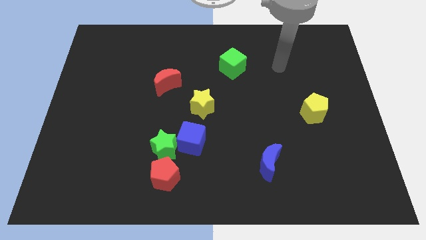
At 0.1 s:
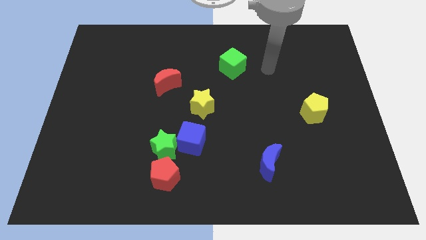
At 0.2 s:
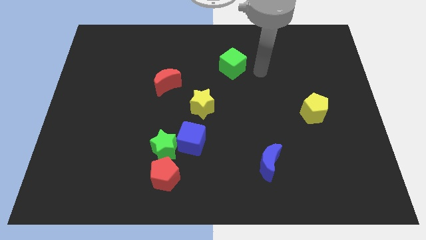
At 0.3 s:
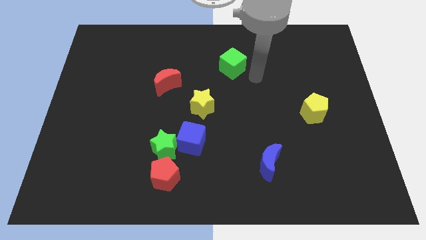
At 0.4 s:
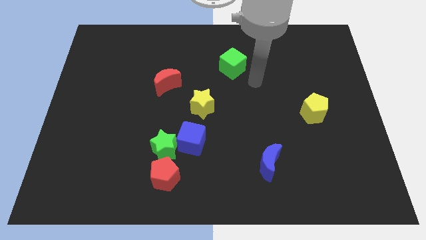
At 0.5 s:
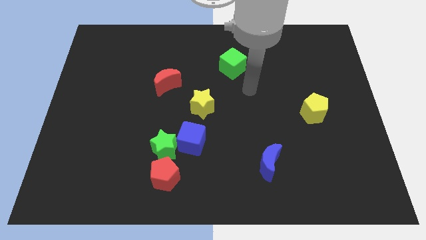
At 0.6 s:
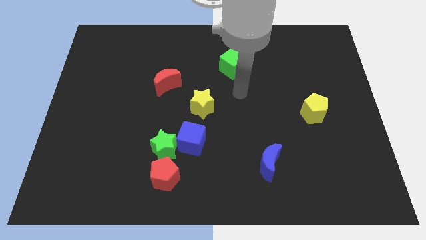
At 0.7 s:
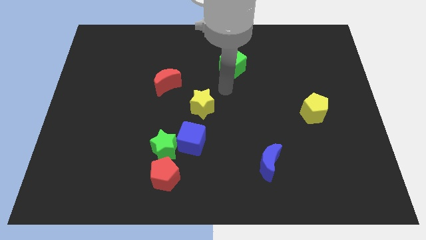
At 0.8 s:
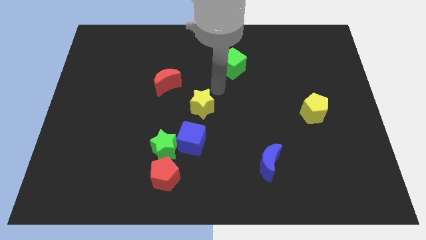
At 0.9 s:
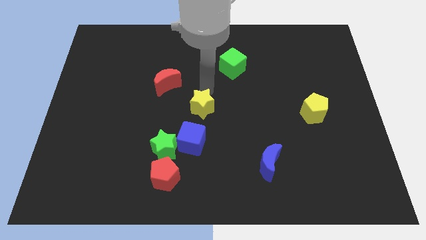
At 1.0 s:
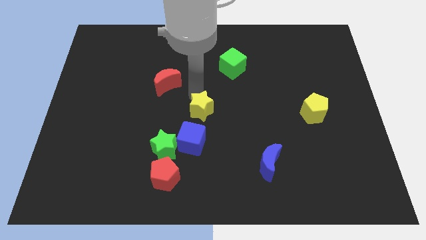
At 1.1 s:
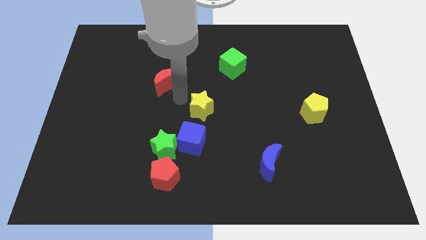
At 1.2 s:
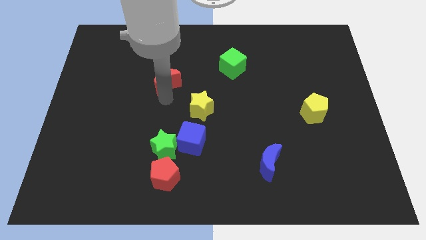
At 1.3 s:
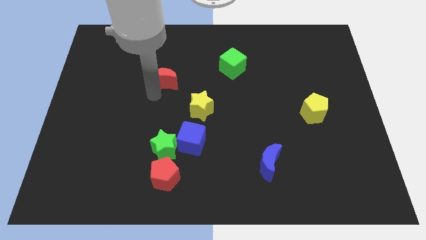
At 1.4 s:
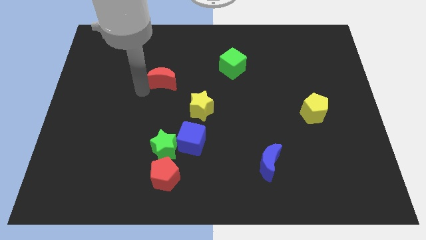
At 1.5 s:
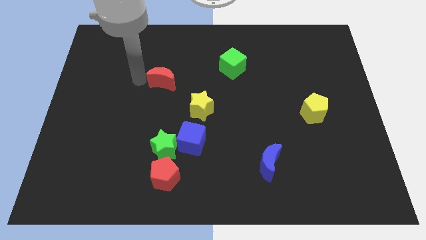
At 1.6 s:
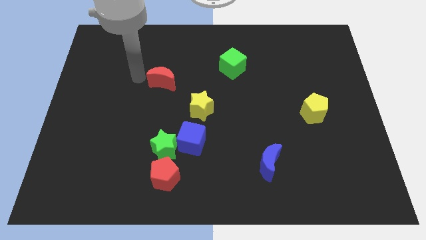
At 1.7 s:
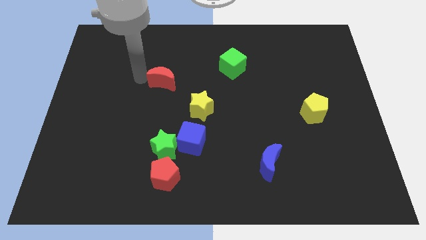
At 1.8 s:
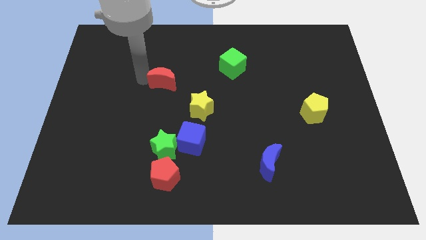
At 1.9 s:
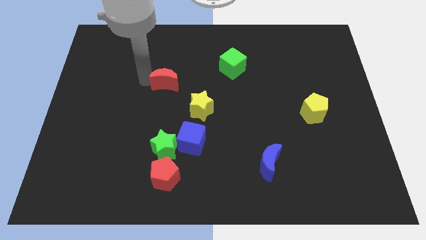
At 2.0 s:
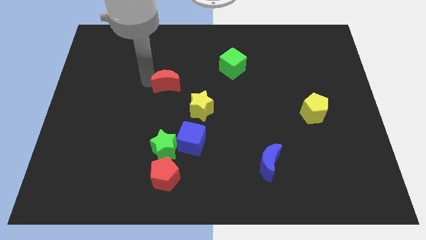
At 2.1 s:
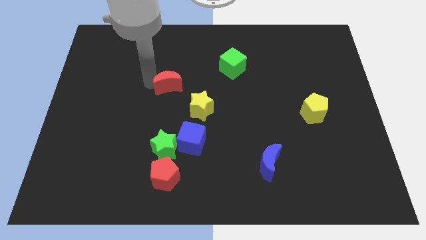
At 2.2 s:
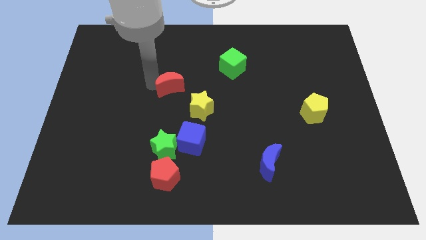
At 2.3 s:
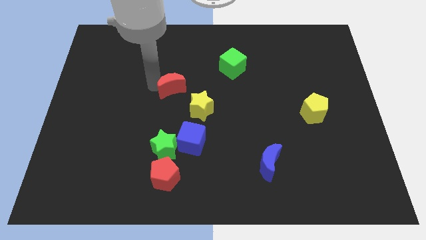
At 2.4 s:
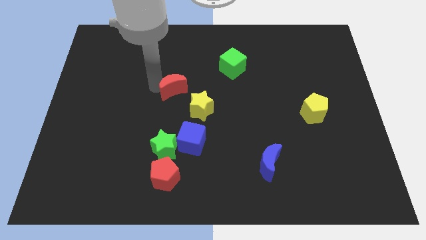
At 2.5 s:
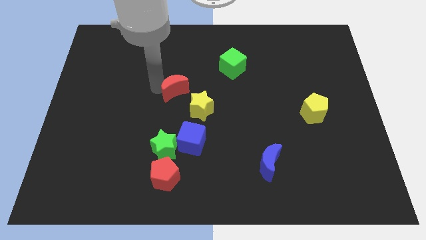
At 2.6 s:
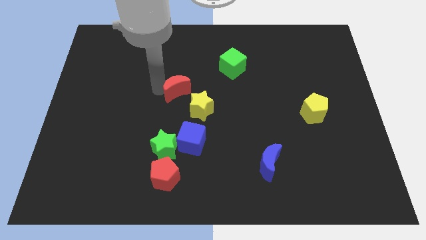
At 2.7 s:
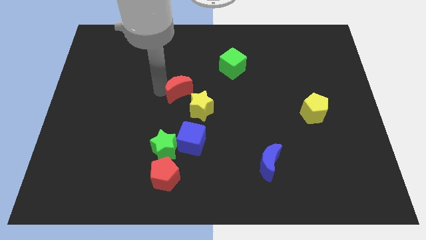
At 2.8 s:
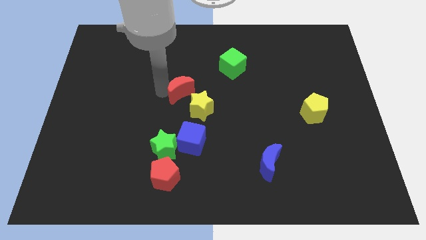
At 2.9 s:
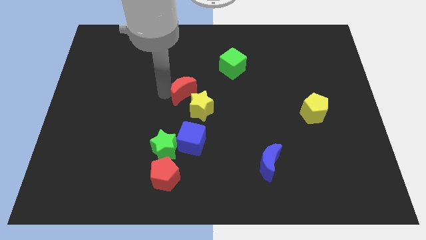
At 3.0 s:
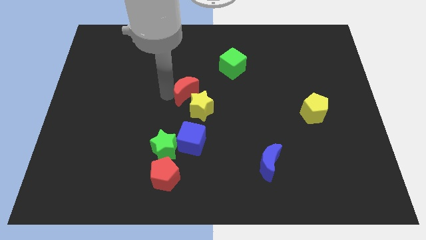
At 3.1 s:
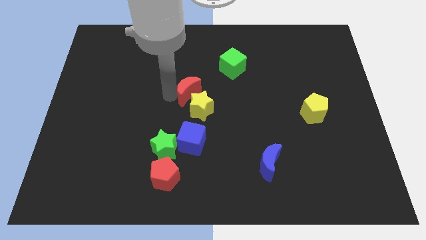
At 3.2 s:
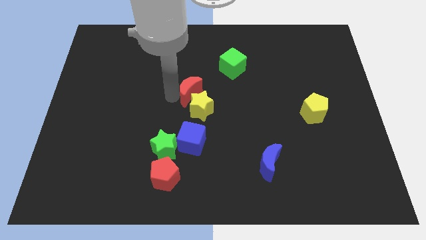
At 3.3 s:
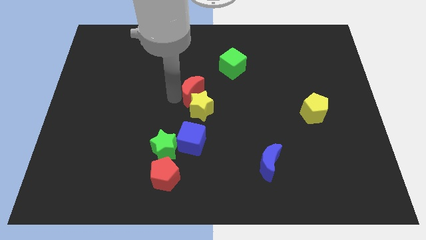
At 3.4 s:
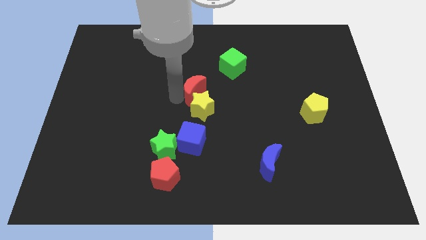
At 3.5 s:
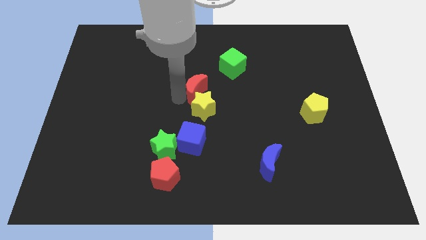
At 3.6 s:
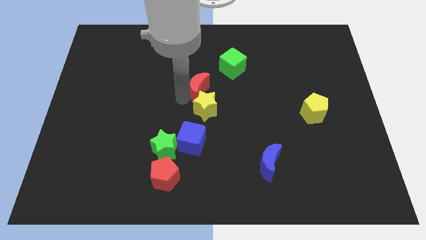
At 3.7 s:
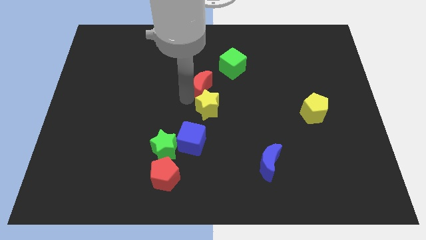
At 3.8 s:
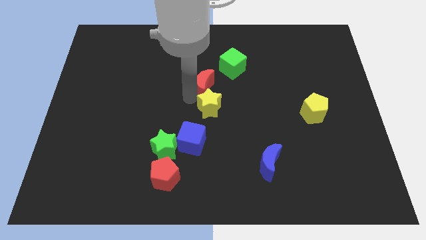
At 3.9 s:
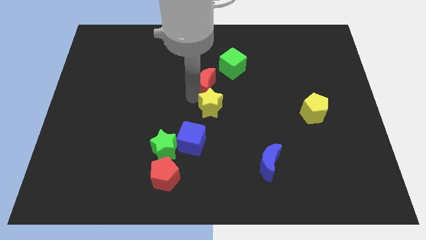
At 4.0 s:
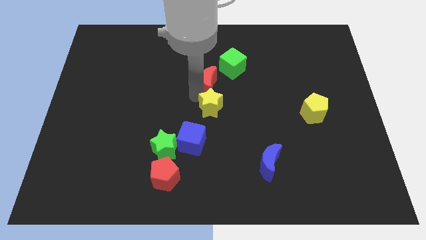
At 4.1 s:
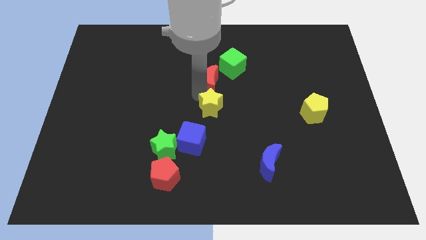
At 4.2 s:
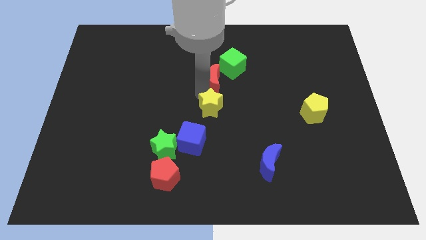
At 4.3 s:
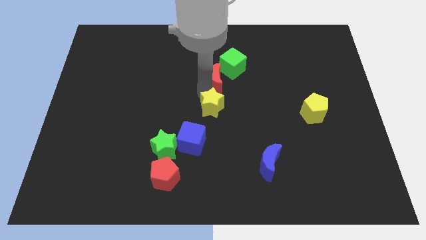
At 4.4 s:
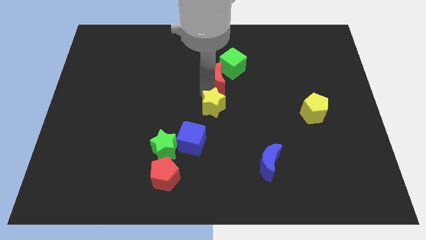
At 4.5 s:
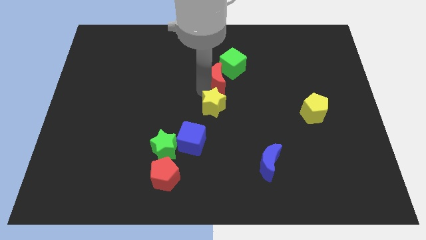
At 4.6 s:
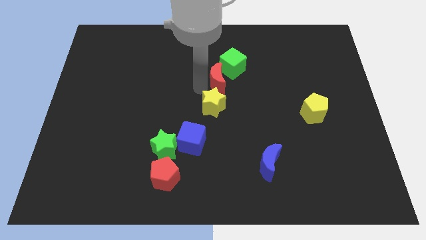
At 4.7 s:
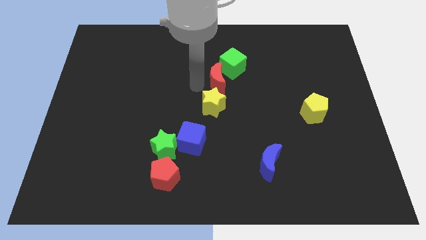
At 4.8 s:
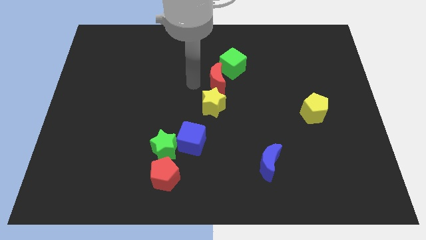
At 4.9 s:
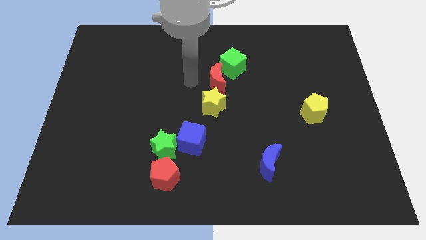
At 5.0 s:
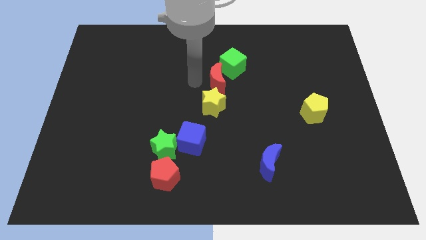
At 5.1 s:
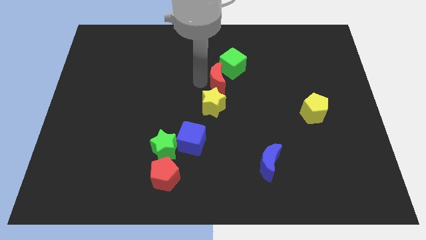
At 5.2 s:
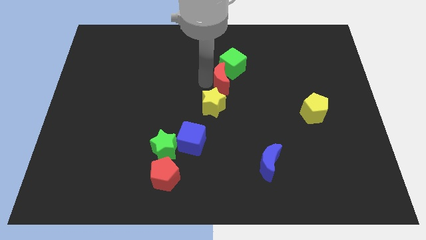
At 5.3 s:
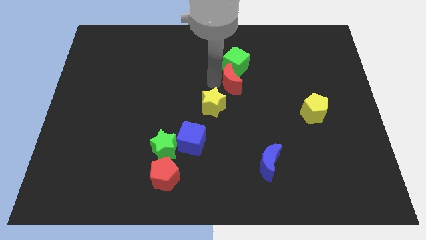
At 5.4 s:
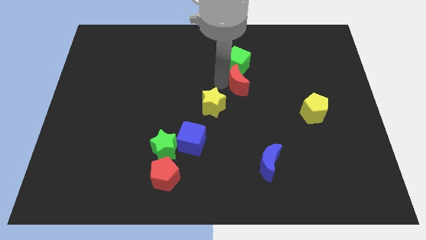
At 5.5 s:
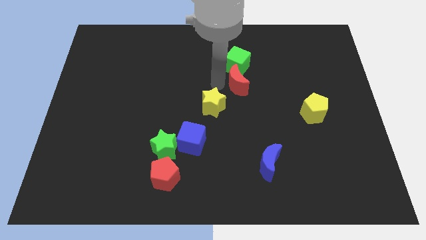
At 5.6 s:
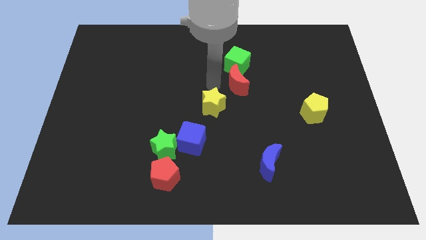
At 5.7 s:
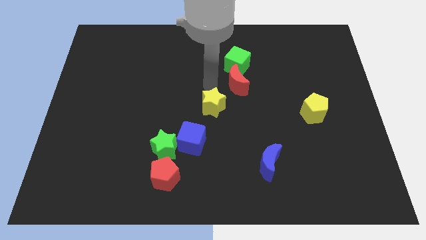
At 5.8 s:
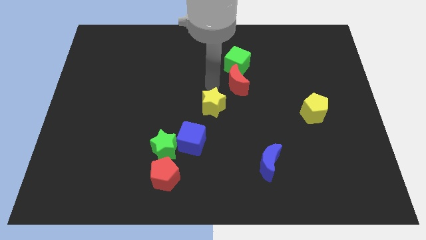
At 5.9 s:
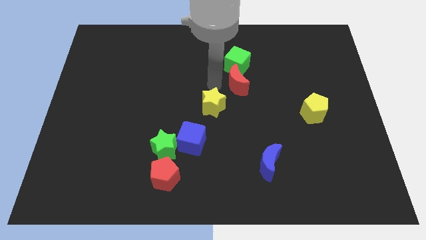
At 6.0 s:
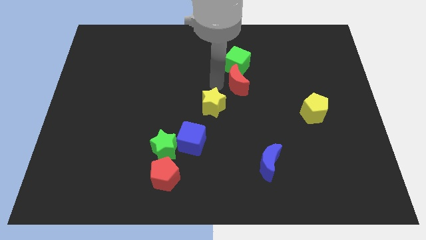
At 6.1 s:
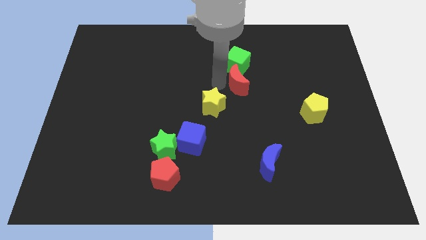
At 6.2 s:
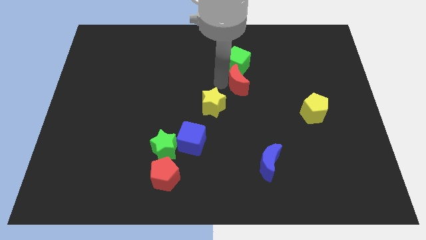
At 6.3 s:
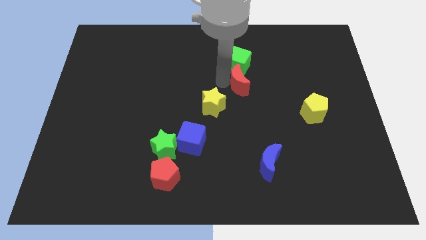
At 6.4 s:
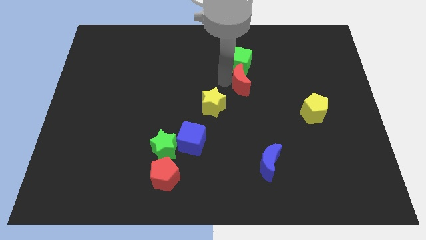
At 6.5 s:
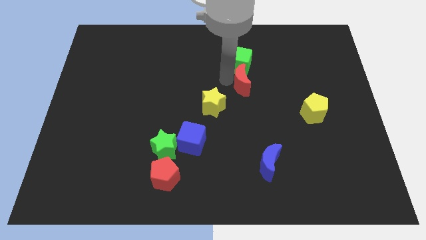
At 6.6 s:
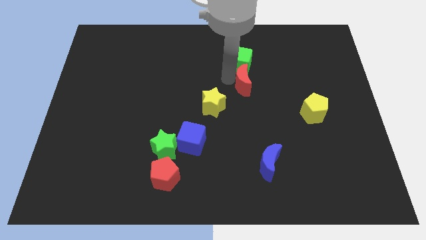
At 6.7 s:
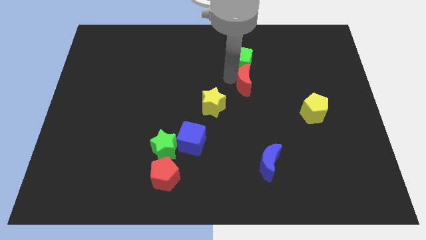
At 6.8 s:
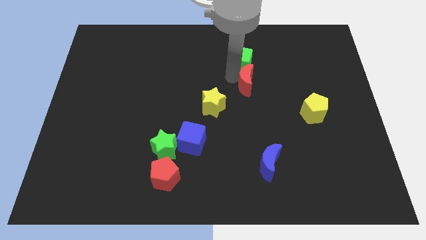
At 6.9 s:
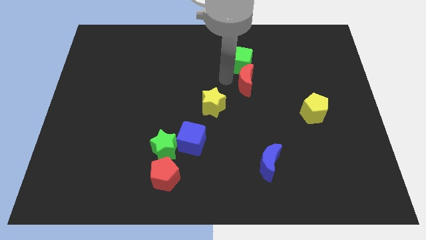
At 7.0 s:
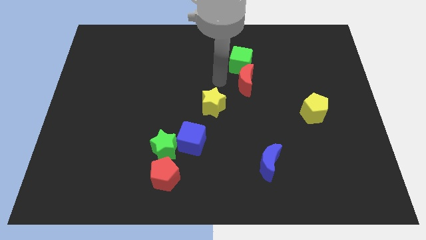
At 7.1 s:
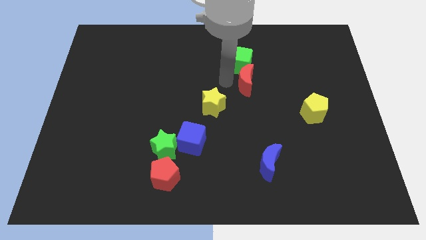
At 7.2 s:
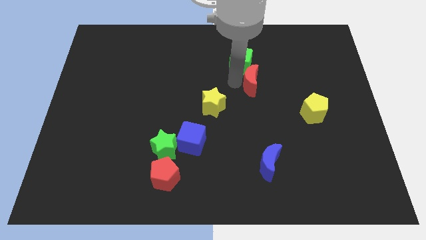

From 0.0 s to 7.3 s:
move the red moon to the right

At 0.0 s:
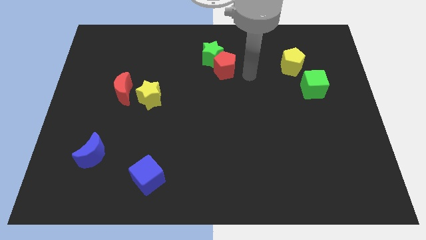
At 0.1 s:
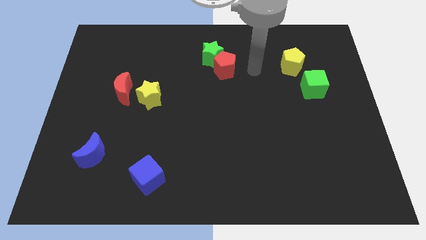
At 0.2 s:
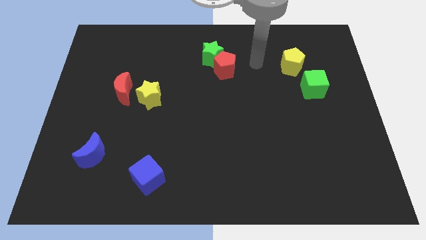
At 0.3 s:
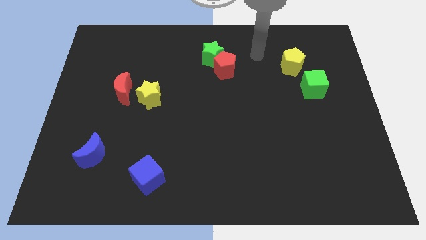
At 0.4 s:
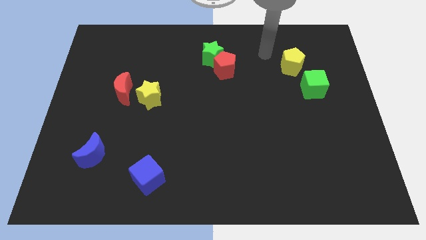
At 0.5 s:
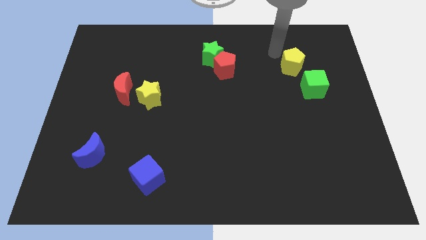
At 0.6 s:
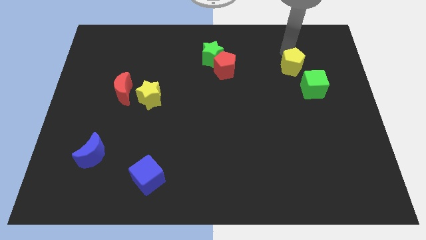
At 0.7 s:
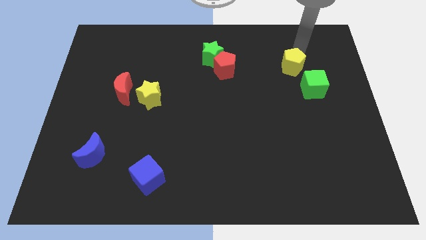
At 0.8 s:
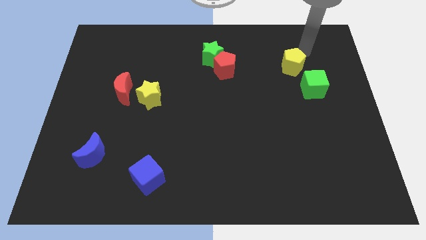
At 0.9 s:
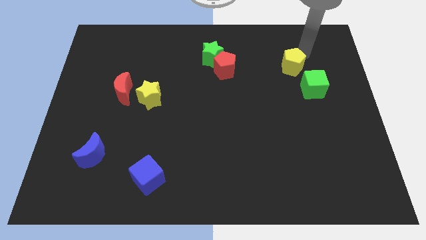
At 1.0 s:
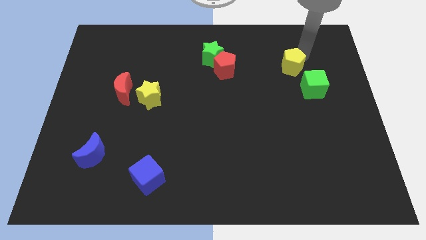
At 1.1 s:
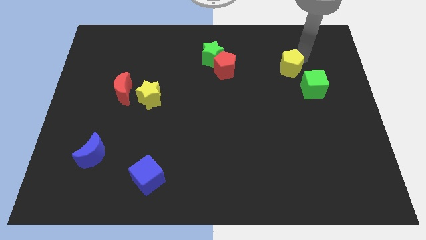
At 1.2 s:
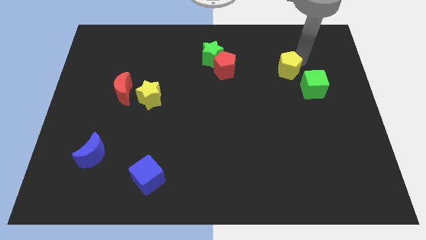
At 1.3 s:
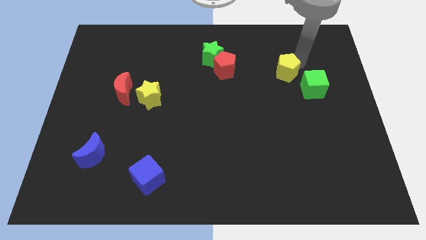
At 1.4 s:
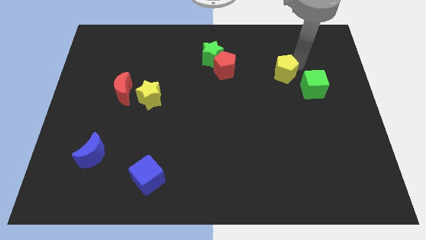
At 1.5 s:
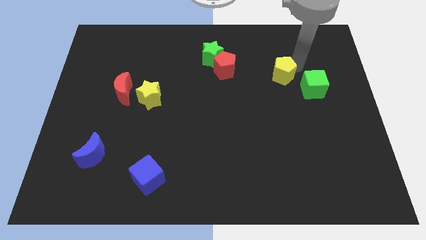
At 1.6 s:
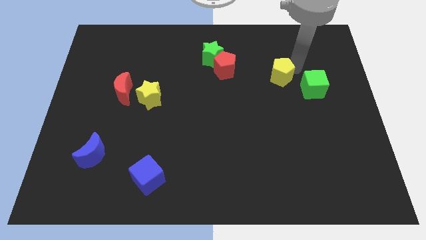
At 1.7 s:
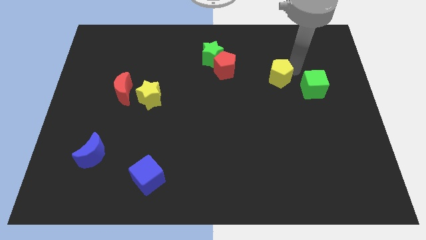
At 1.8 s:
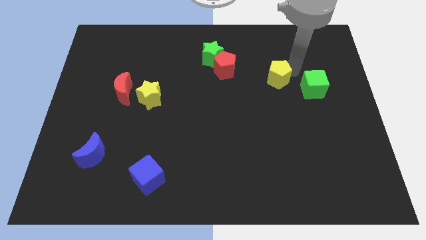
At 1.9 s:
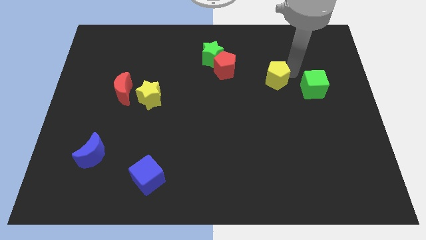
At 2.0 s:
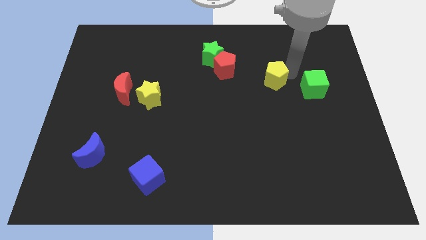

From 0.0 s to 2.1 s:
slightly push the yellow pentagon down and to the left diagonally
